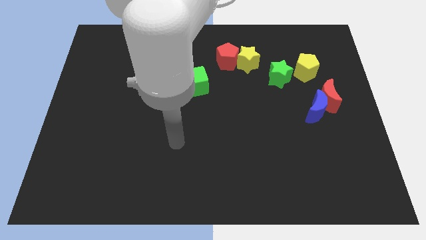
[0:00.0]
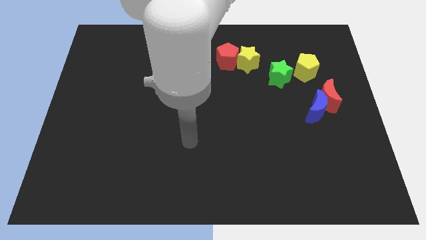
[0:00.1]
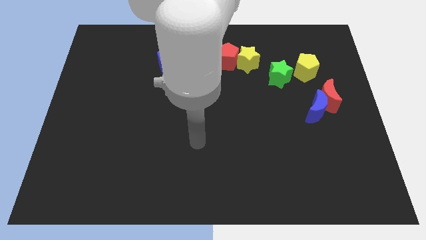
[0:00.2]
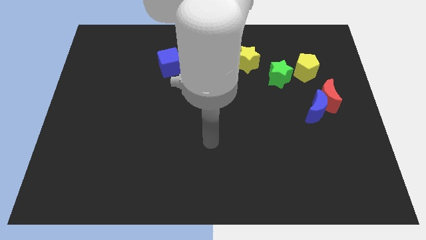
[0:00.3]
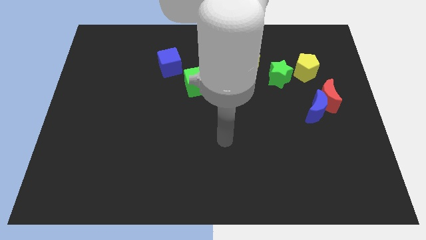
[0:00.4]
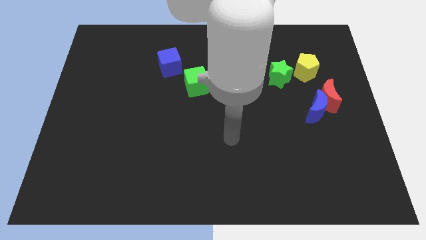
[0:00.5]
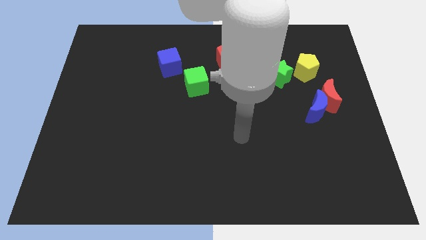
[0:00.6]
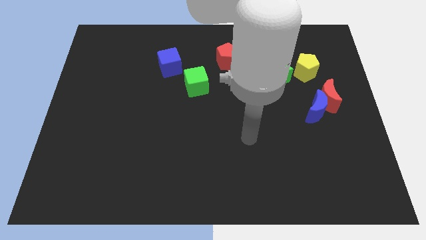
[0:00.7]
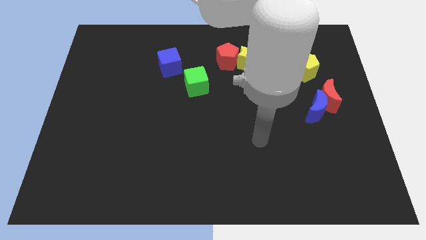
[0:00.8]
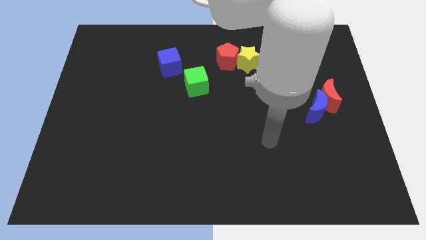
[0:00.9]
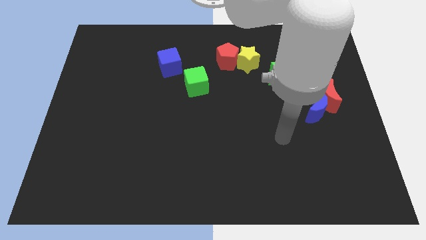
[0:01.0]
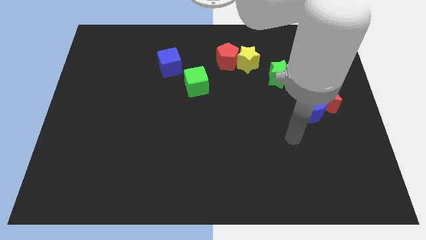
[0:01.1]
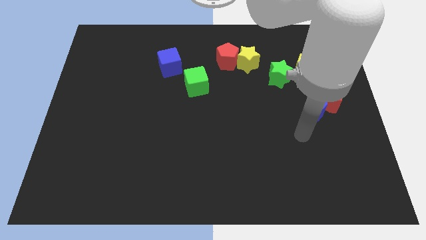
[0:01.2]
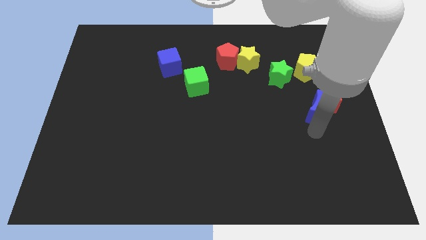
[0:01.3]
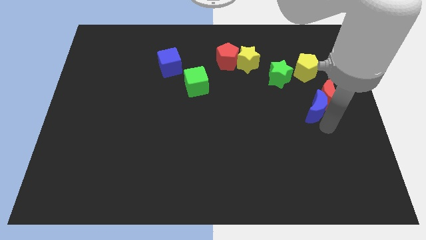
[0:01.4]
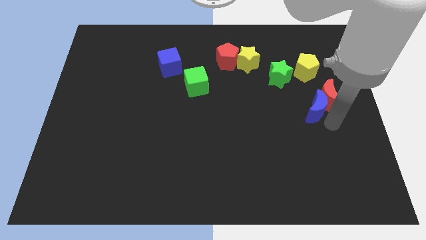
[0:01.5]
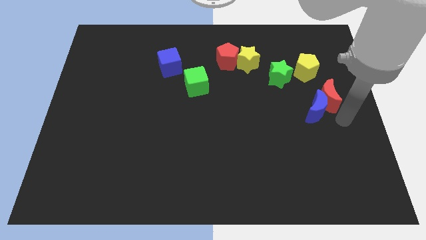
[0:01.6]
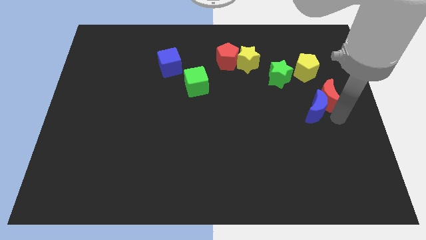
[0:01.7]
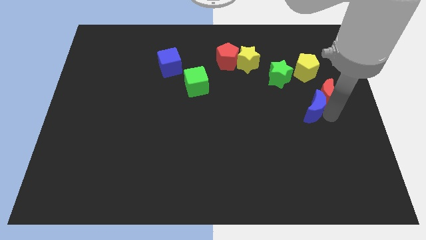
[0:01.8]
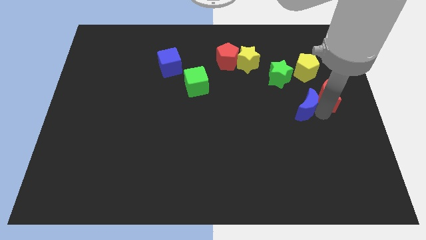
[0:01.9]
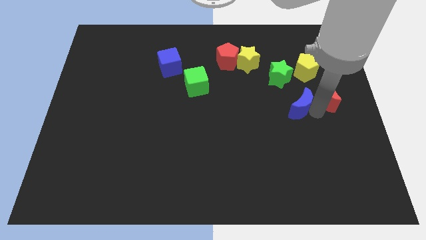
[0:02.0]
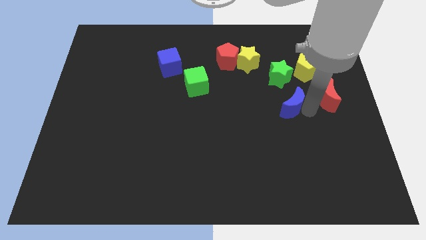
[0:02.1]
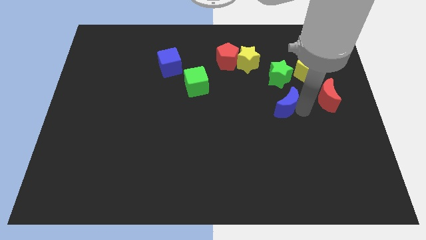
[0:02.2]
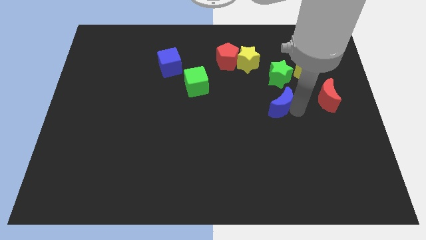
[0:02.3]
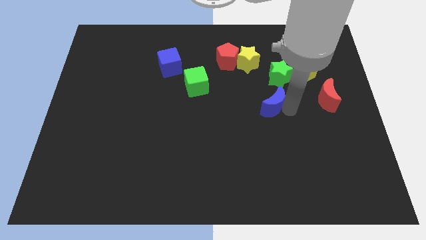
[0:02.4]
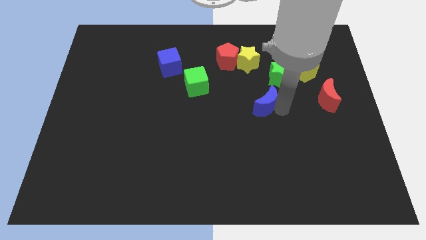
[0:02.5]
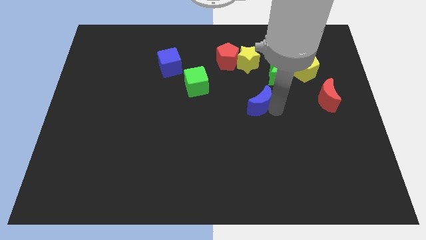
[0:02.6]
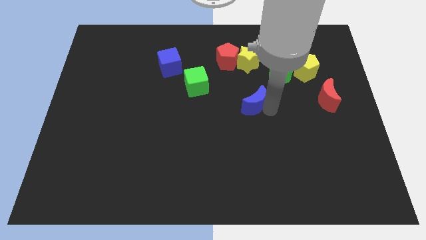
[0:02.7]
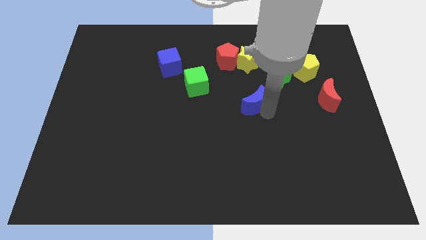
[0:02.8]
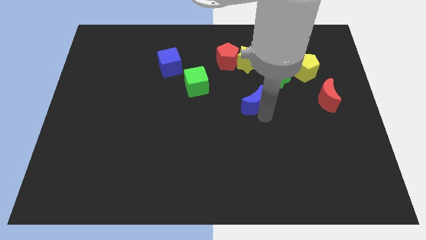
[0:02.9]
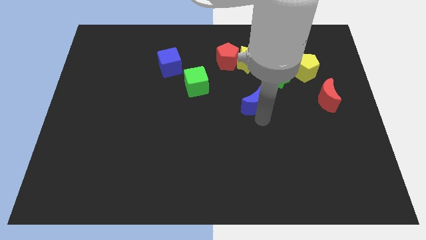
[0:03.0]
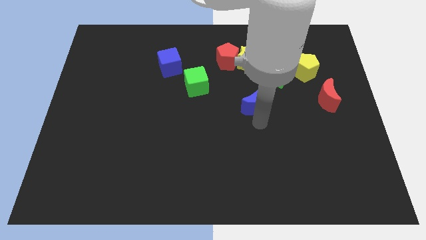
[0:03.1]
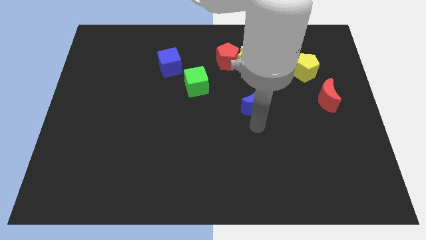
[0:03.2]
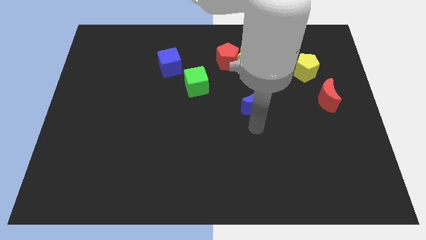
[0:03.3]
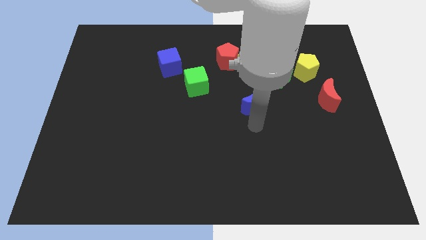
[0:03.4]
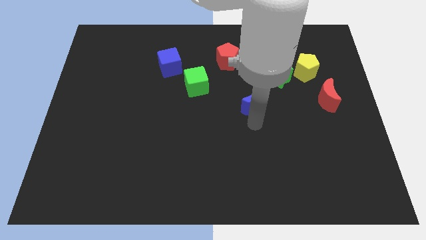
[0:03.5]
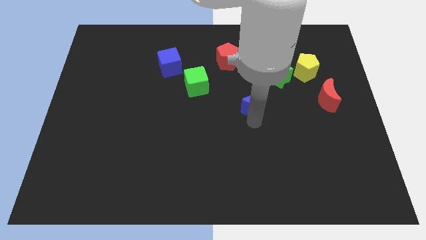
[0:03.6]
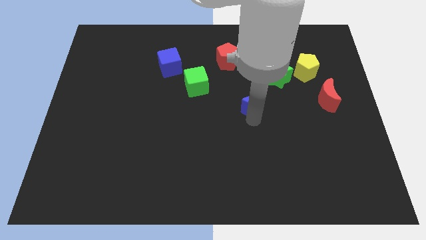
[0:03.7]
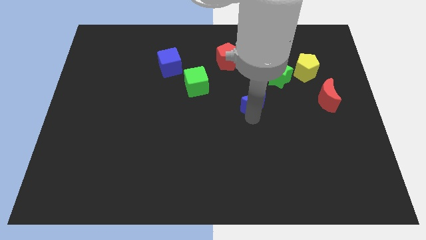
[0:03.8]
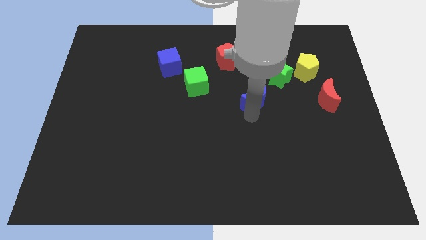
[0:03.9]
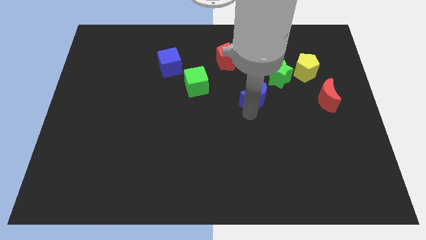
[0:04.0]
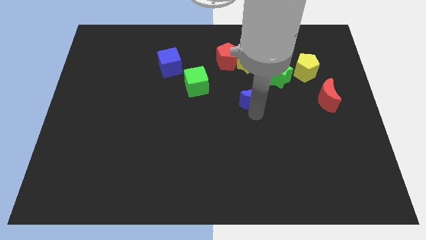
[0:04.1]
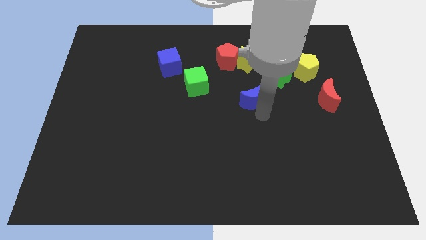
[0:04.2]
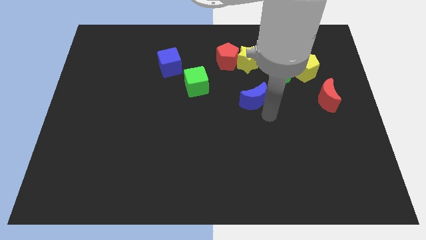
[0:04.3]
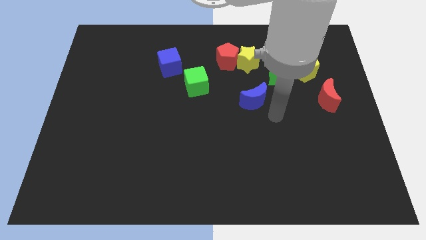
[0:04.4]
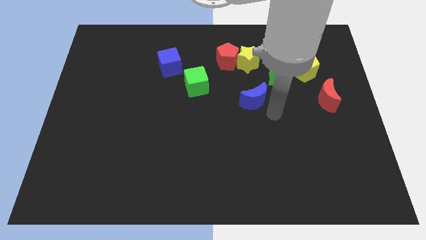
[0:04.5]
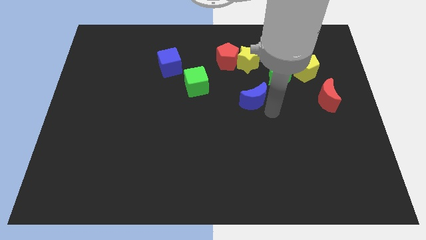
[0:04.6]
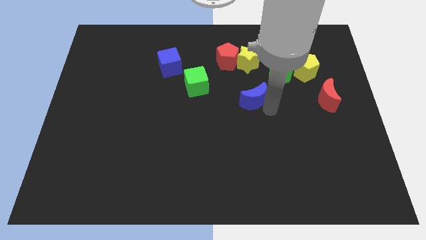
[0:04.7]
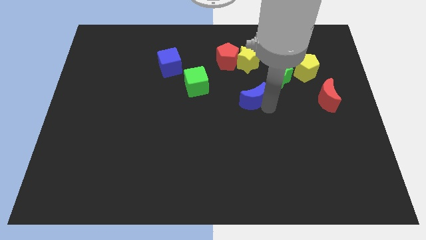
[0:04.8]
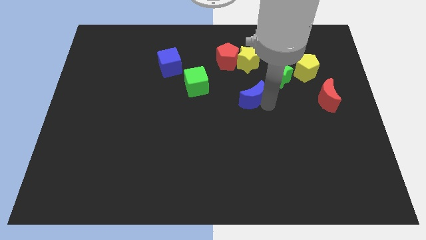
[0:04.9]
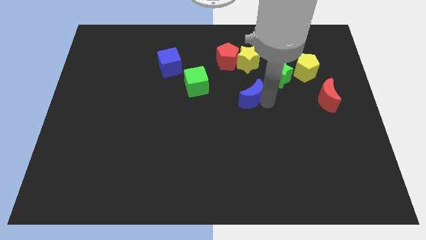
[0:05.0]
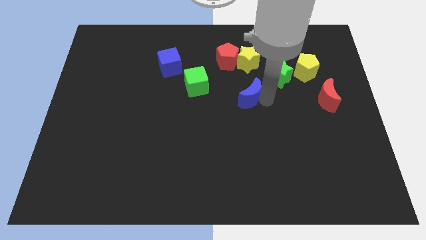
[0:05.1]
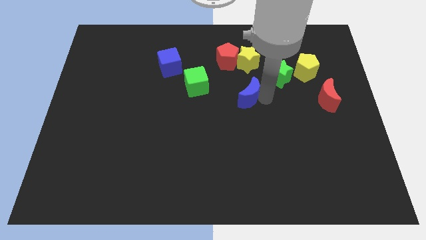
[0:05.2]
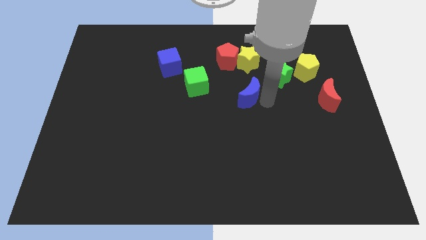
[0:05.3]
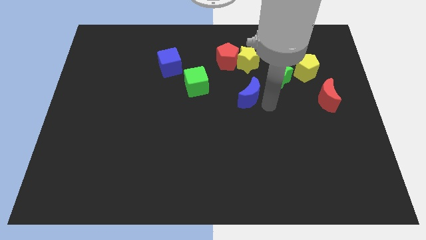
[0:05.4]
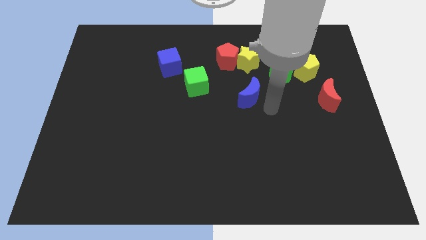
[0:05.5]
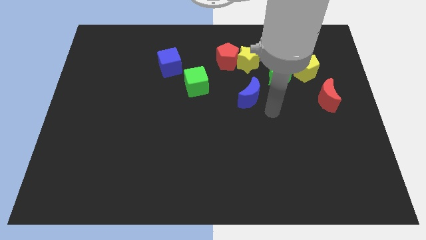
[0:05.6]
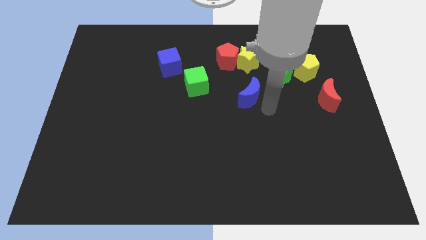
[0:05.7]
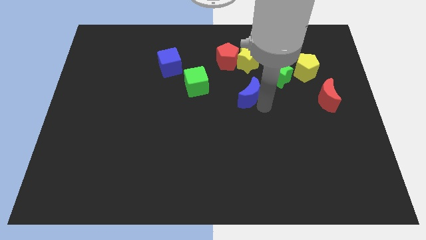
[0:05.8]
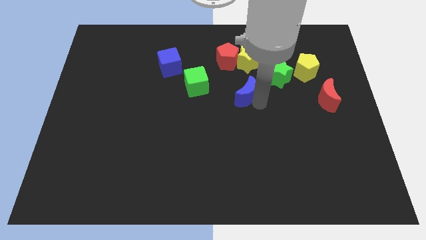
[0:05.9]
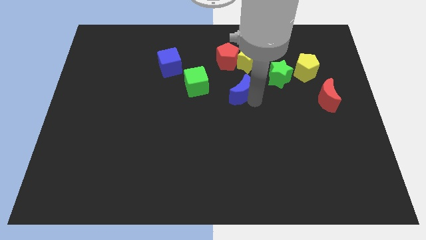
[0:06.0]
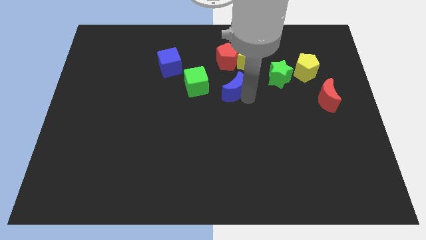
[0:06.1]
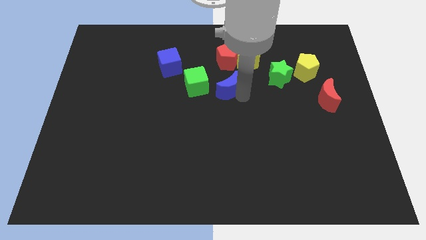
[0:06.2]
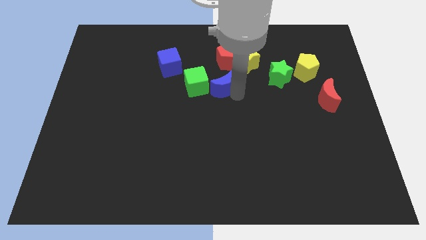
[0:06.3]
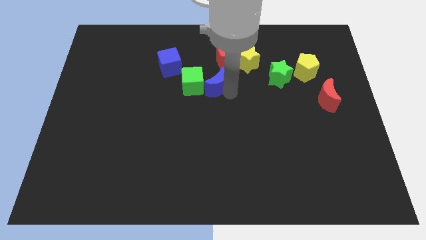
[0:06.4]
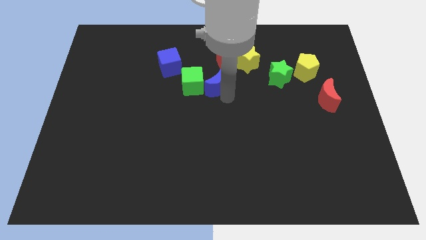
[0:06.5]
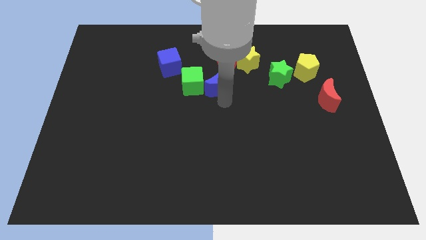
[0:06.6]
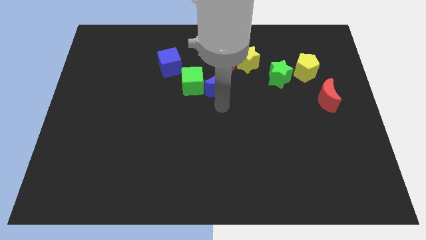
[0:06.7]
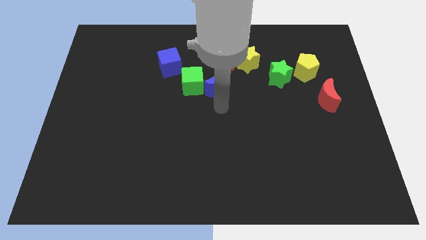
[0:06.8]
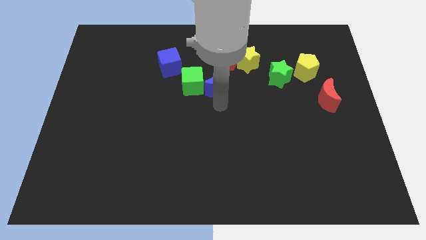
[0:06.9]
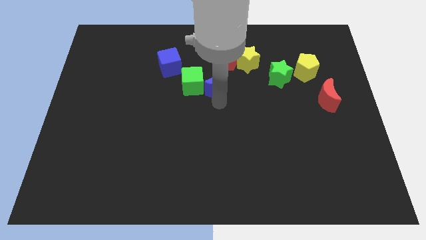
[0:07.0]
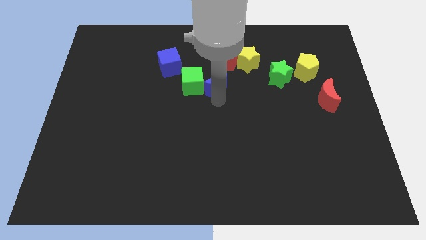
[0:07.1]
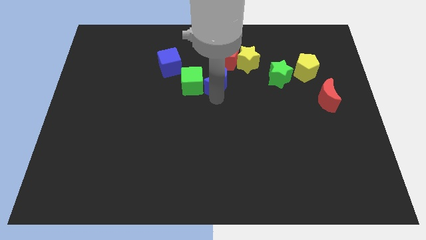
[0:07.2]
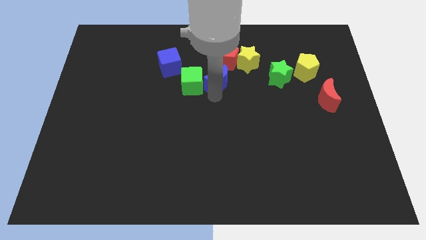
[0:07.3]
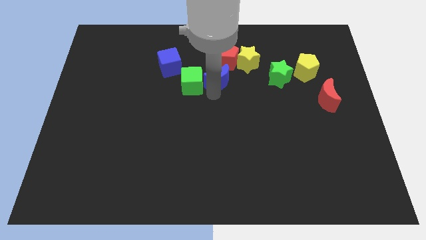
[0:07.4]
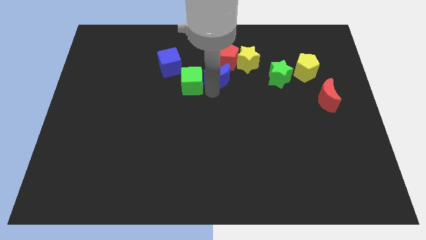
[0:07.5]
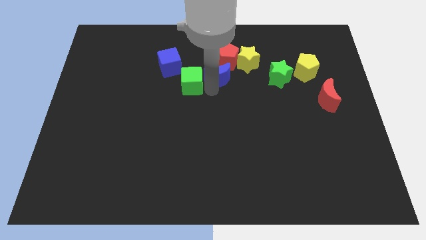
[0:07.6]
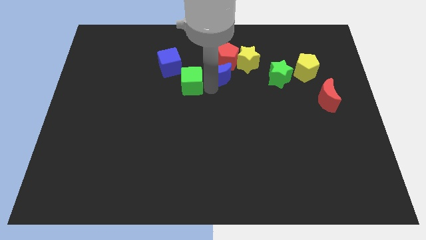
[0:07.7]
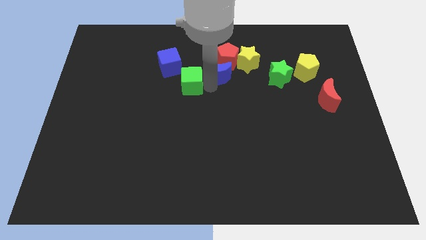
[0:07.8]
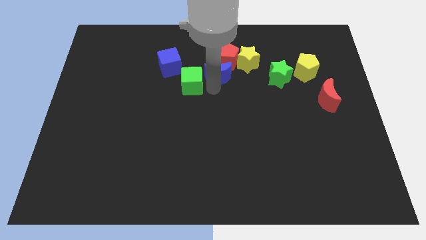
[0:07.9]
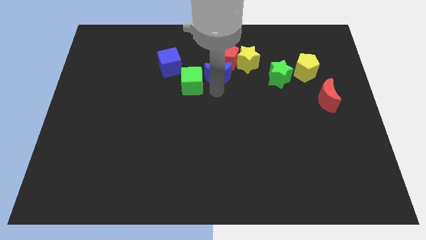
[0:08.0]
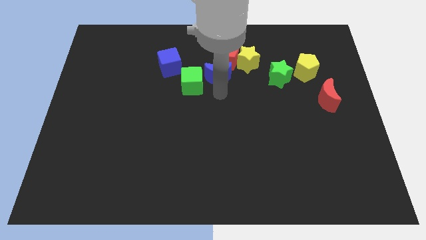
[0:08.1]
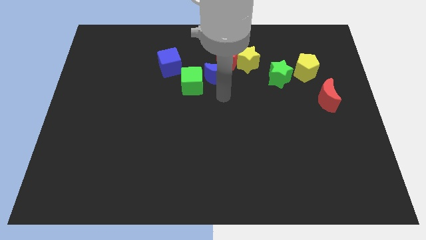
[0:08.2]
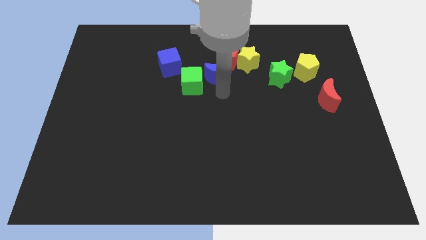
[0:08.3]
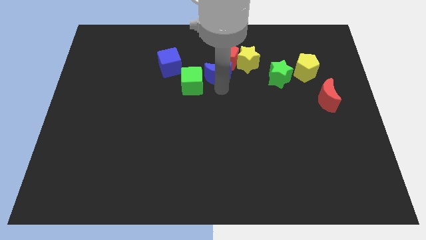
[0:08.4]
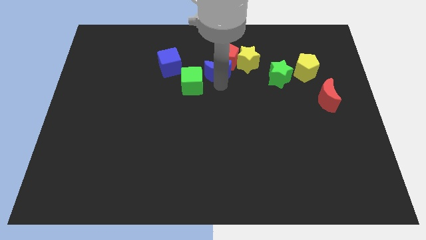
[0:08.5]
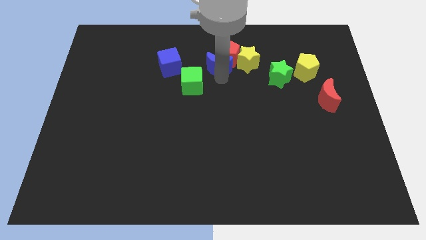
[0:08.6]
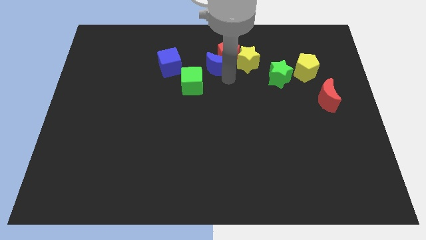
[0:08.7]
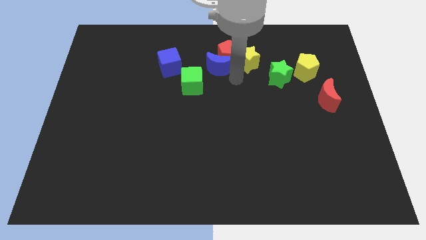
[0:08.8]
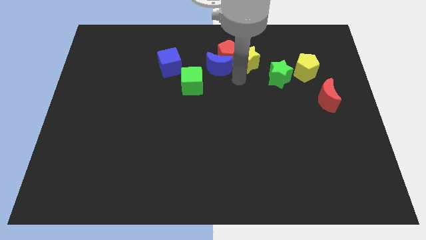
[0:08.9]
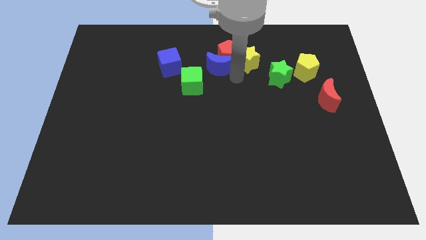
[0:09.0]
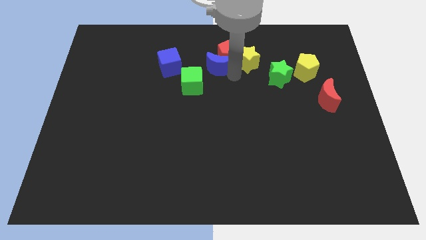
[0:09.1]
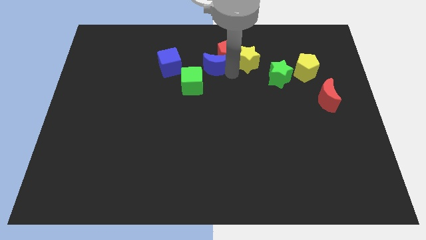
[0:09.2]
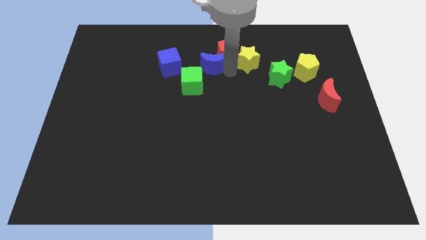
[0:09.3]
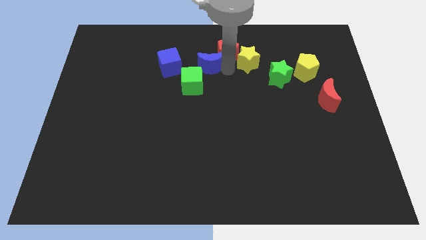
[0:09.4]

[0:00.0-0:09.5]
push the blue moon above the green cube
